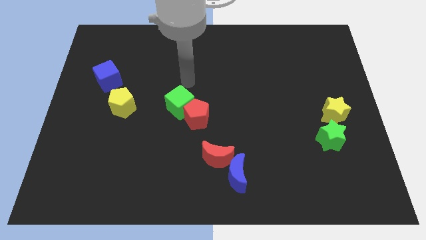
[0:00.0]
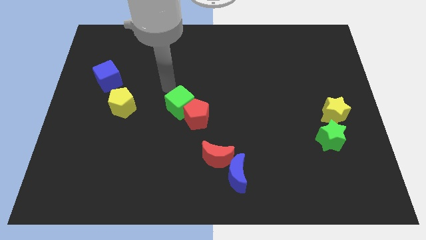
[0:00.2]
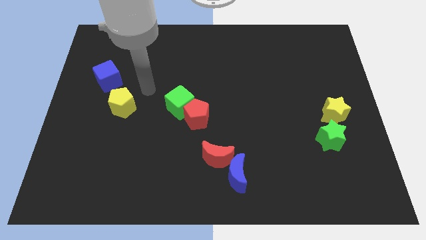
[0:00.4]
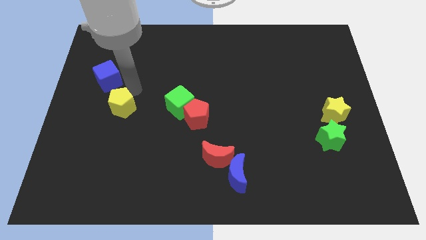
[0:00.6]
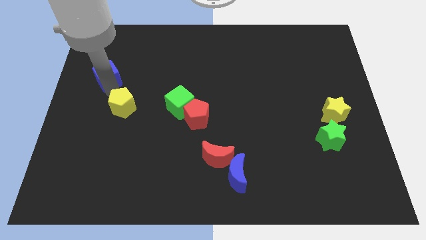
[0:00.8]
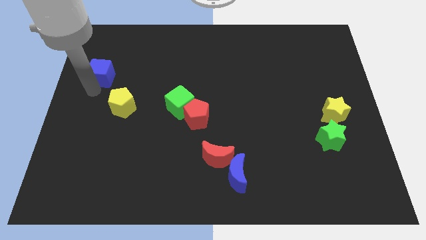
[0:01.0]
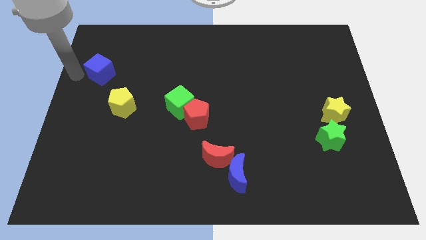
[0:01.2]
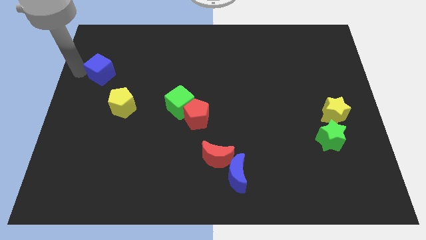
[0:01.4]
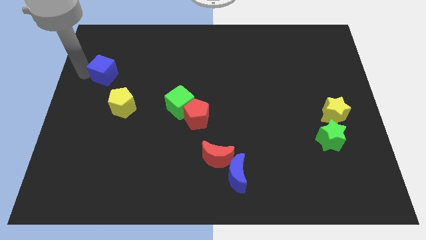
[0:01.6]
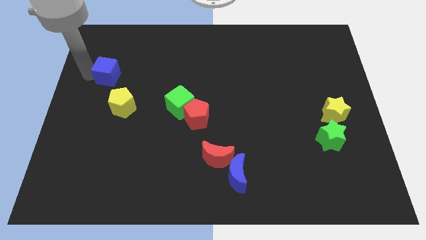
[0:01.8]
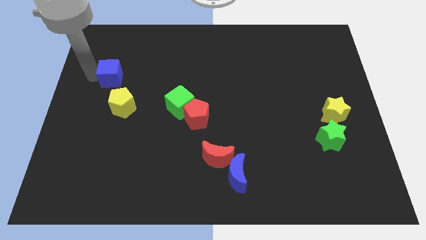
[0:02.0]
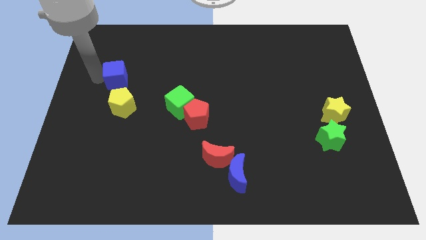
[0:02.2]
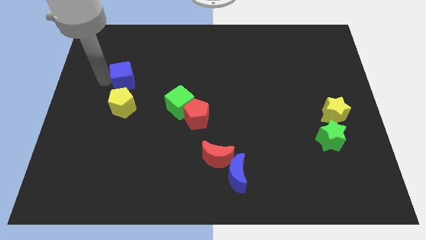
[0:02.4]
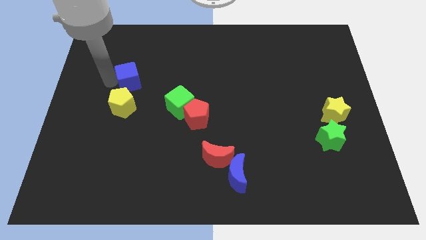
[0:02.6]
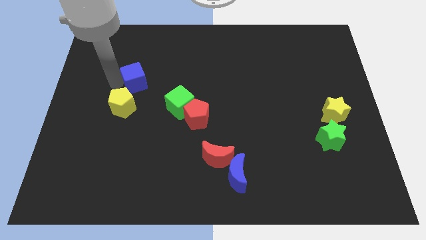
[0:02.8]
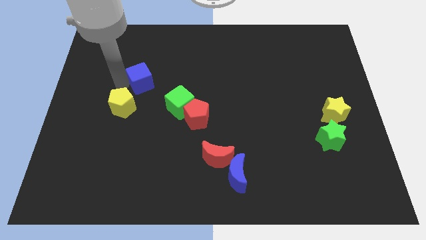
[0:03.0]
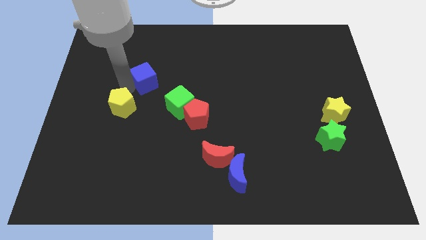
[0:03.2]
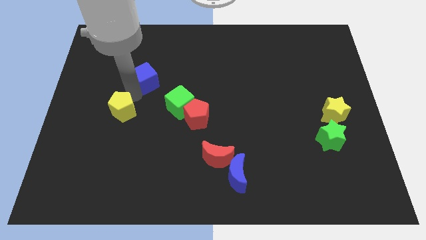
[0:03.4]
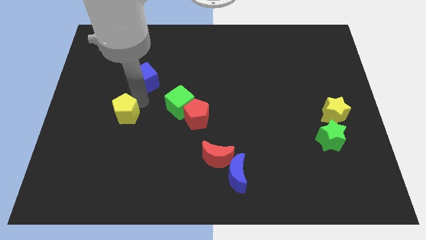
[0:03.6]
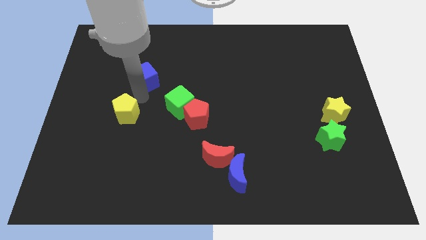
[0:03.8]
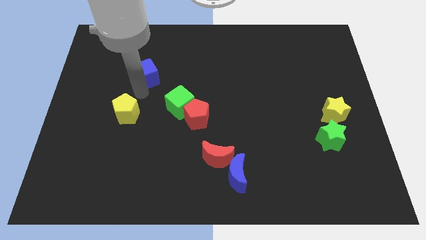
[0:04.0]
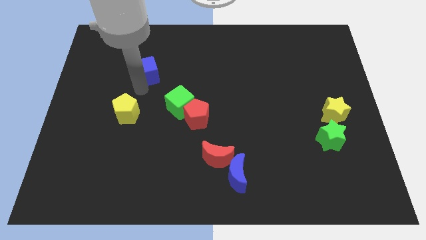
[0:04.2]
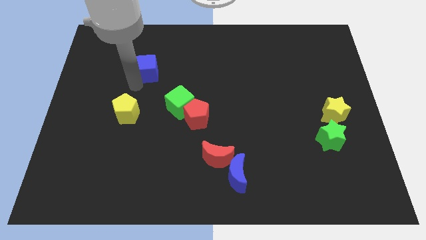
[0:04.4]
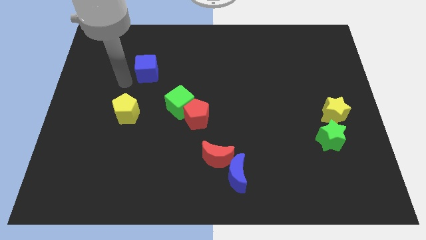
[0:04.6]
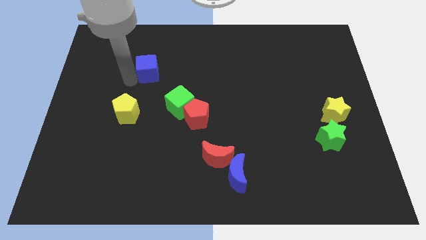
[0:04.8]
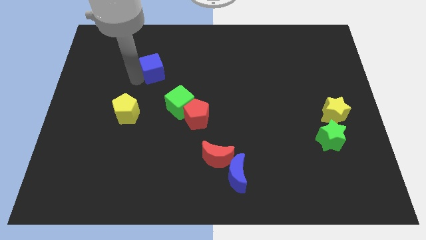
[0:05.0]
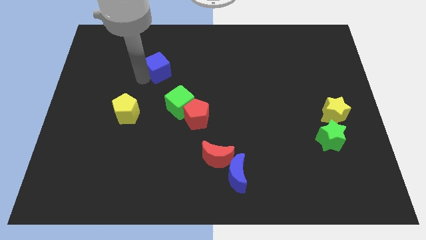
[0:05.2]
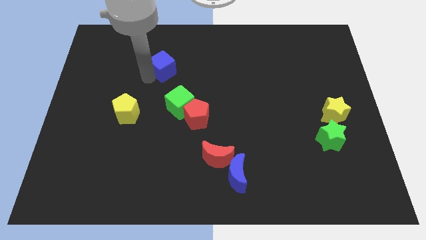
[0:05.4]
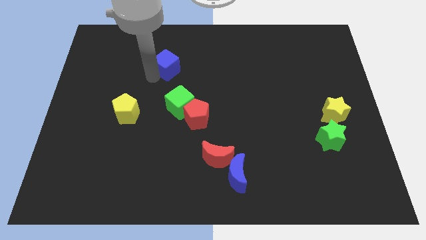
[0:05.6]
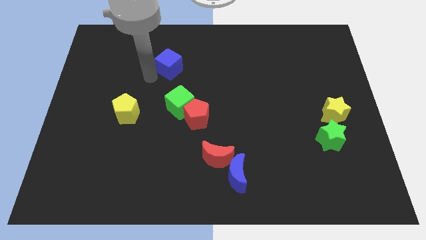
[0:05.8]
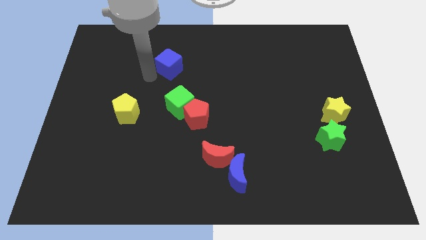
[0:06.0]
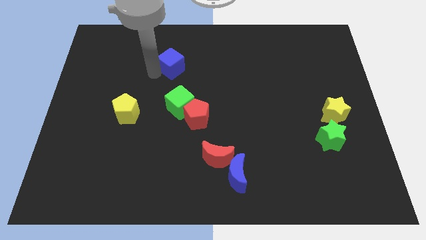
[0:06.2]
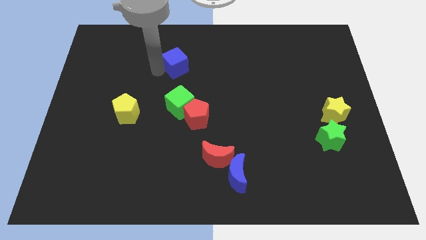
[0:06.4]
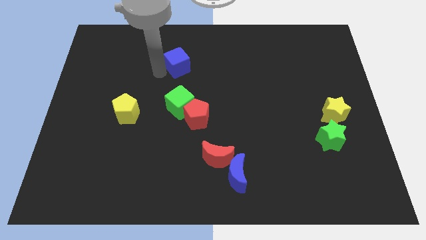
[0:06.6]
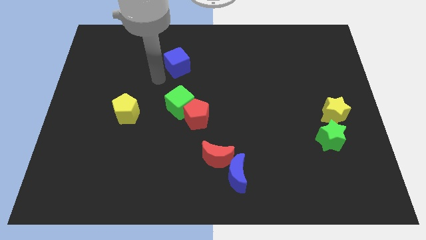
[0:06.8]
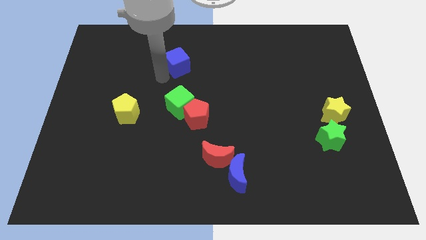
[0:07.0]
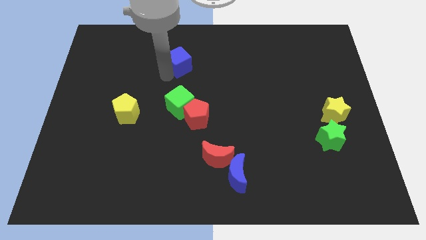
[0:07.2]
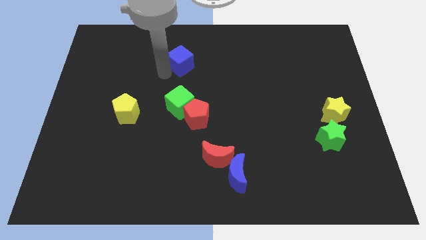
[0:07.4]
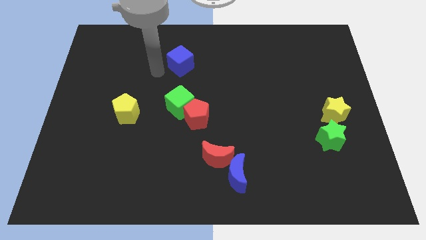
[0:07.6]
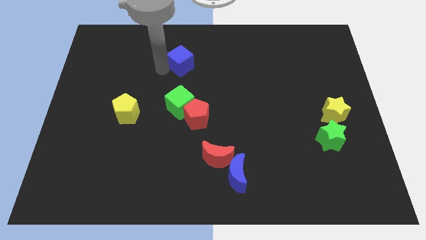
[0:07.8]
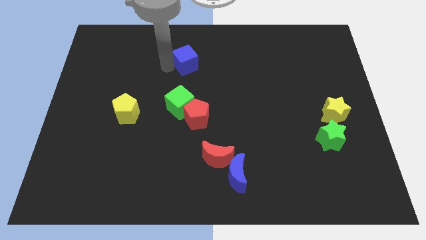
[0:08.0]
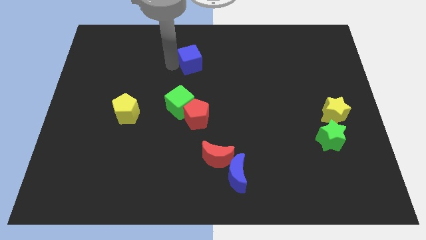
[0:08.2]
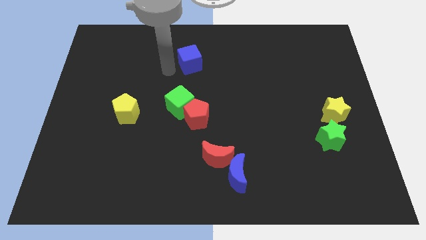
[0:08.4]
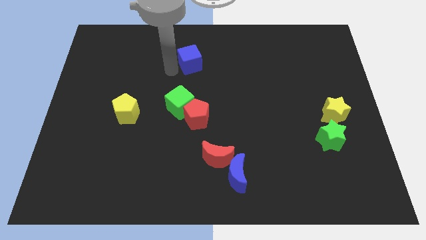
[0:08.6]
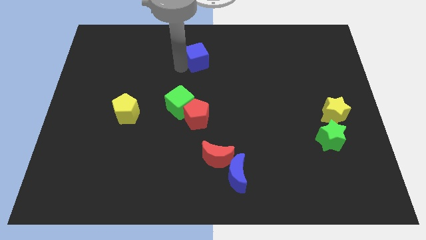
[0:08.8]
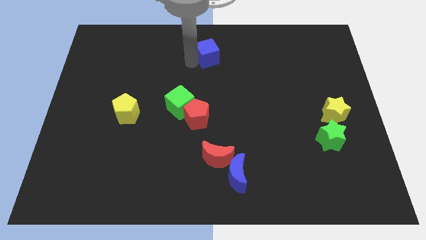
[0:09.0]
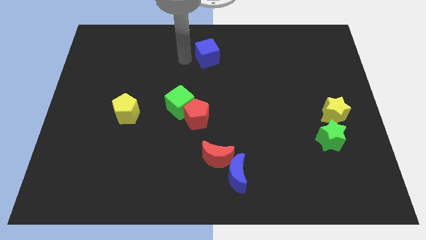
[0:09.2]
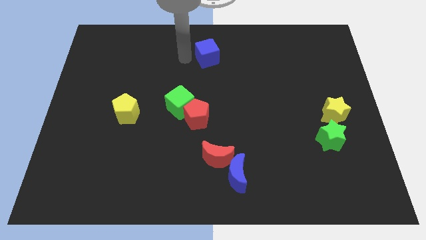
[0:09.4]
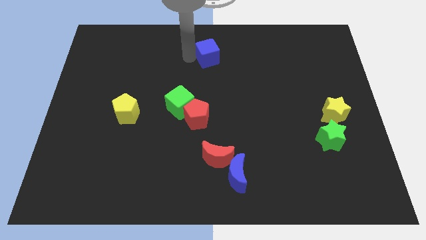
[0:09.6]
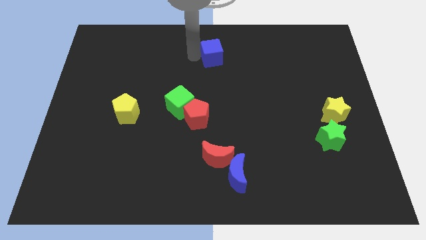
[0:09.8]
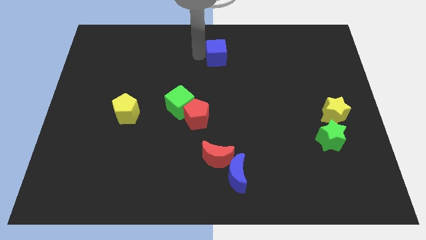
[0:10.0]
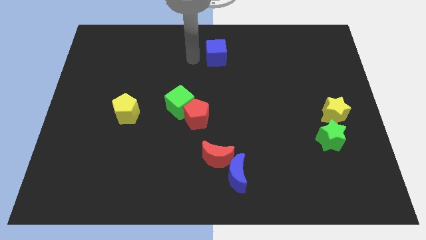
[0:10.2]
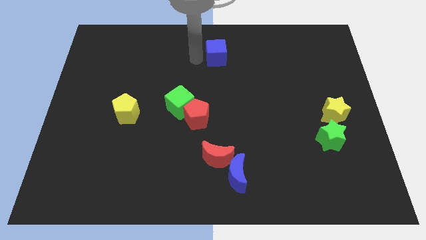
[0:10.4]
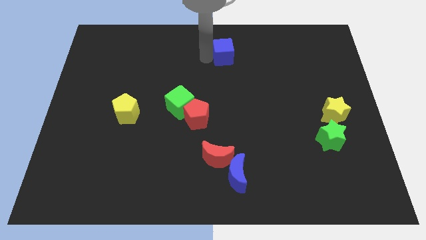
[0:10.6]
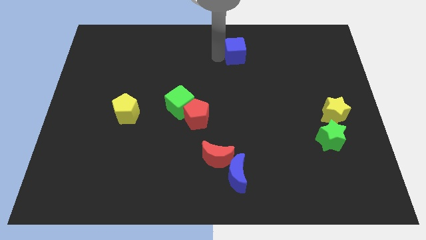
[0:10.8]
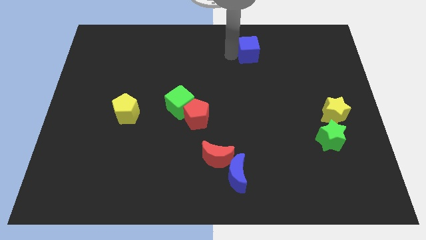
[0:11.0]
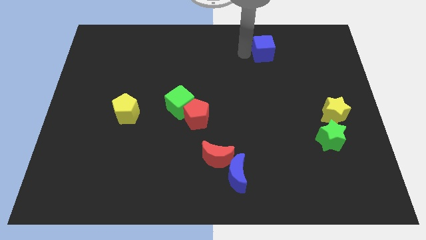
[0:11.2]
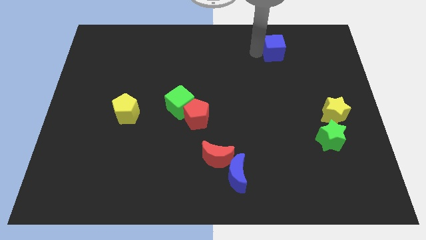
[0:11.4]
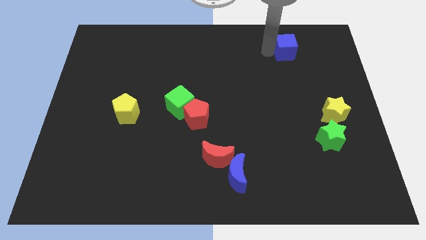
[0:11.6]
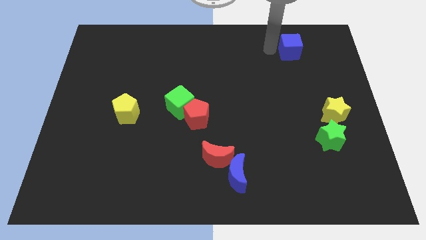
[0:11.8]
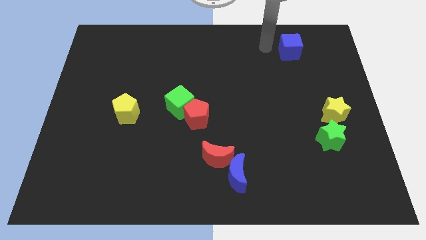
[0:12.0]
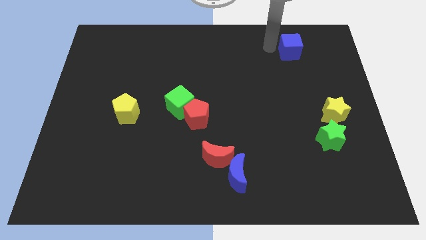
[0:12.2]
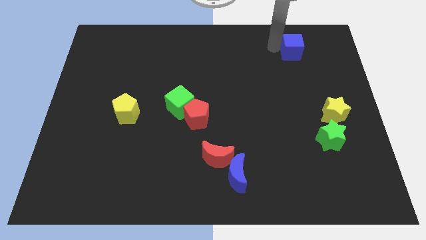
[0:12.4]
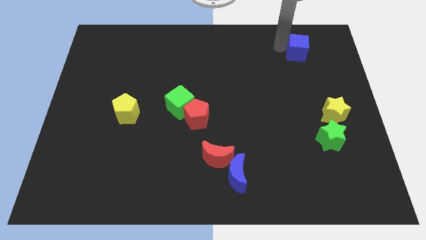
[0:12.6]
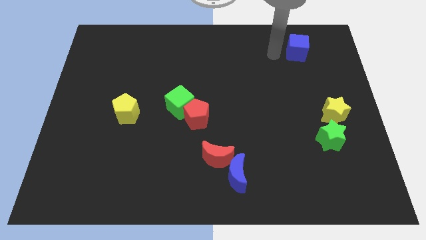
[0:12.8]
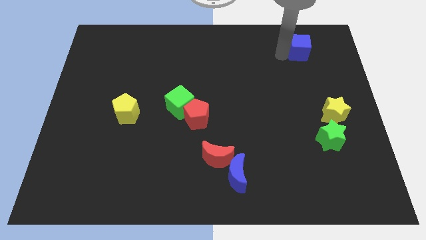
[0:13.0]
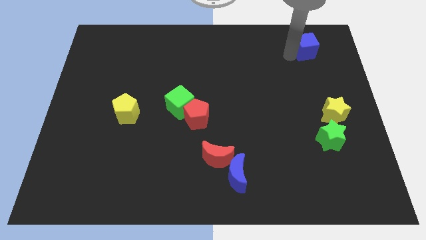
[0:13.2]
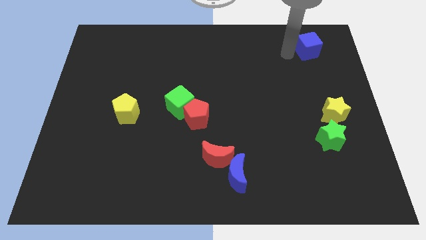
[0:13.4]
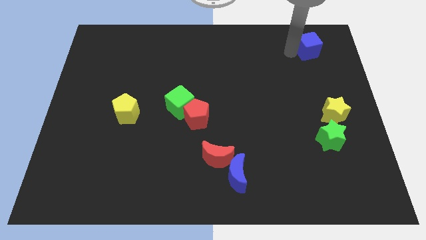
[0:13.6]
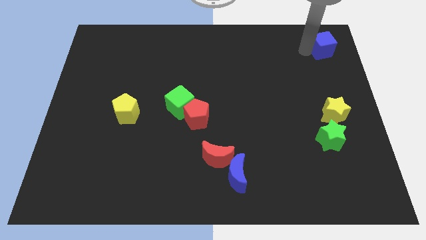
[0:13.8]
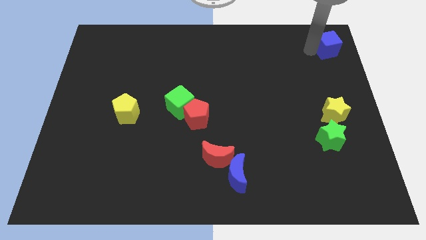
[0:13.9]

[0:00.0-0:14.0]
move the blue cube to the top right of the board
